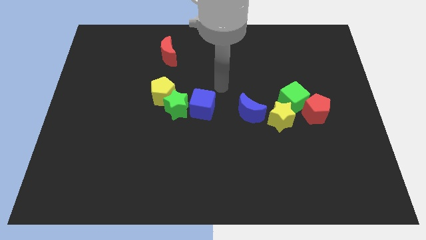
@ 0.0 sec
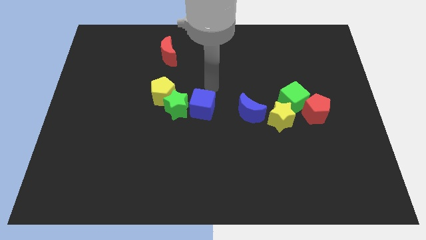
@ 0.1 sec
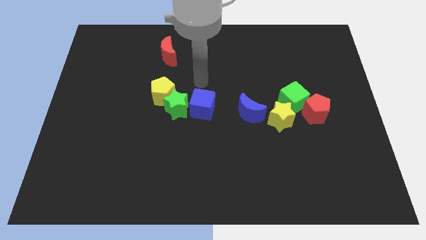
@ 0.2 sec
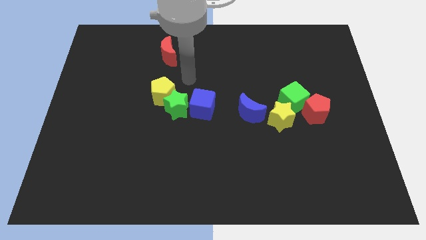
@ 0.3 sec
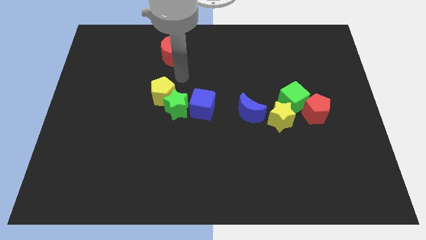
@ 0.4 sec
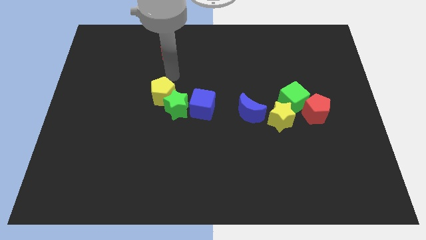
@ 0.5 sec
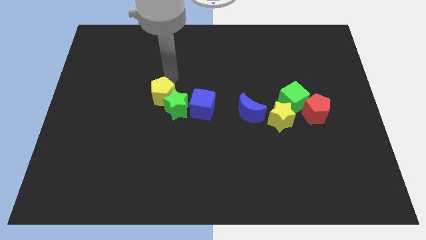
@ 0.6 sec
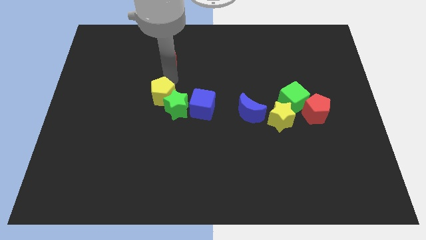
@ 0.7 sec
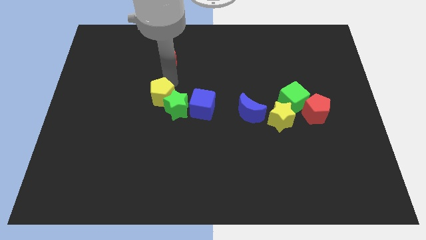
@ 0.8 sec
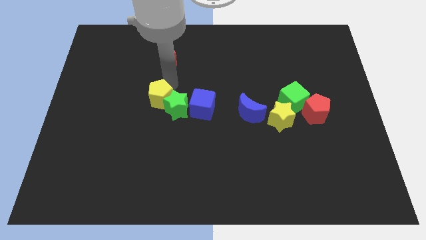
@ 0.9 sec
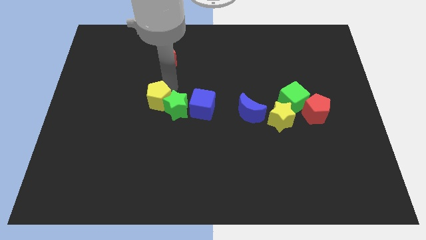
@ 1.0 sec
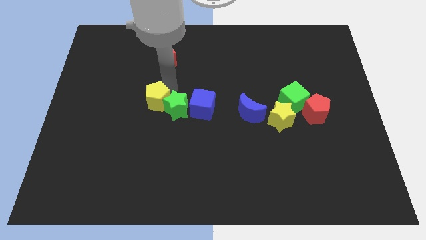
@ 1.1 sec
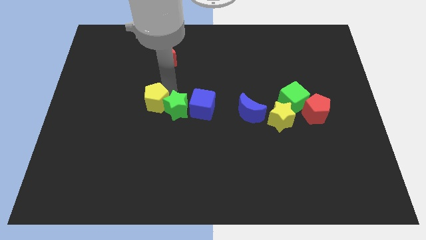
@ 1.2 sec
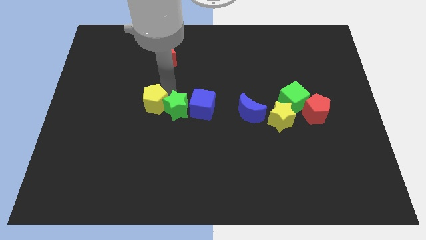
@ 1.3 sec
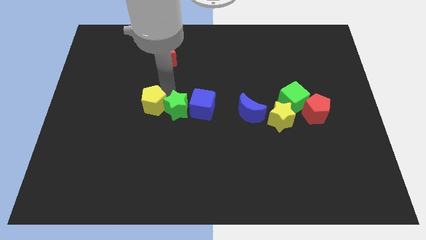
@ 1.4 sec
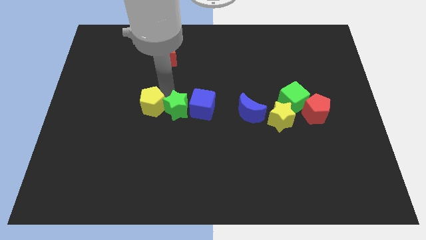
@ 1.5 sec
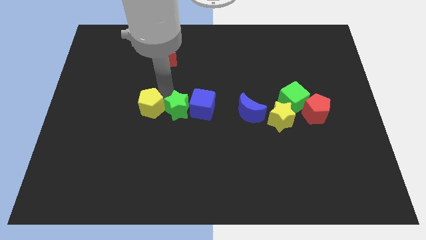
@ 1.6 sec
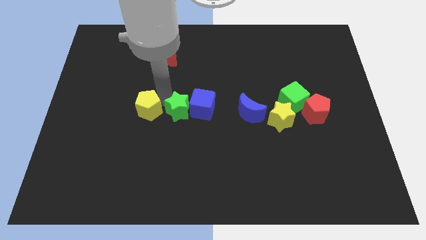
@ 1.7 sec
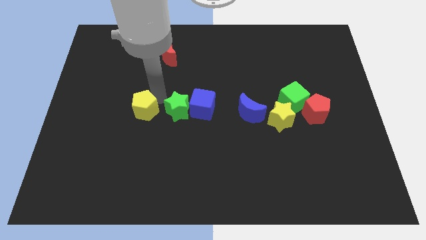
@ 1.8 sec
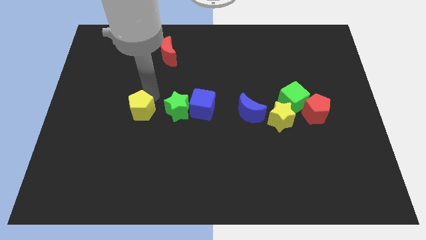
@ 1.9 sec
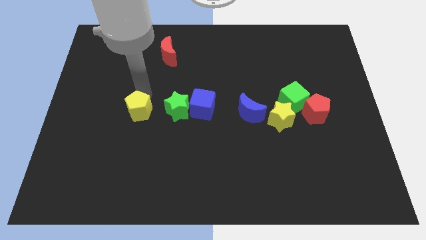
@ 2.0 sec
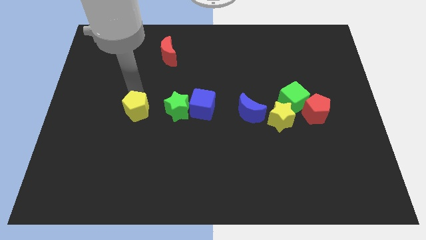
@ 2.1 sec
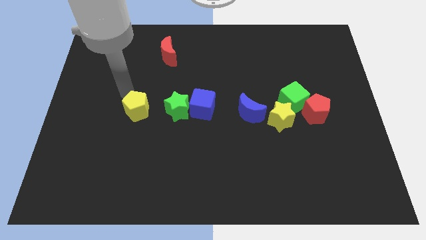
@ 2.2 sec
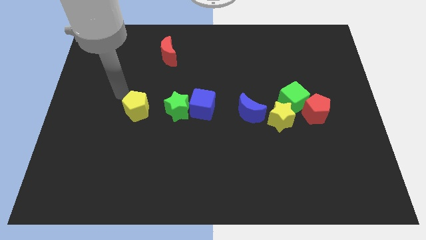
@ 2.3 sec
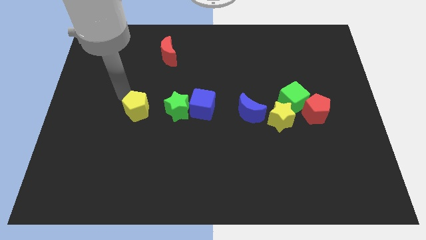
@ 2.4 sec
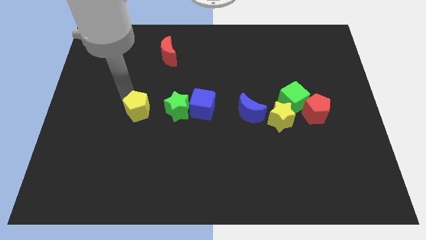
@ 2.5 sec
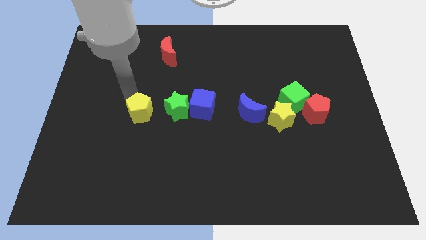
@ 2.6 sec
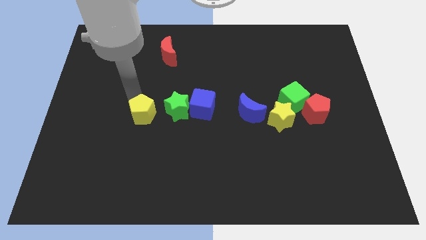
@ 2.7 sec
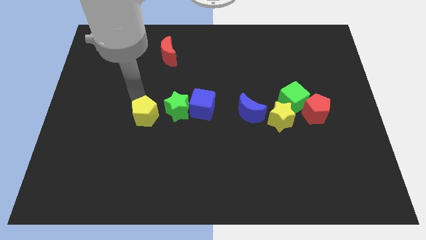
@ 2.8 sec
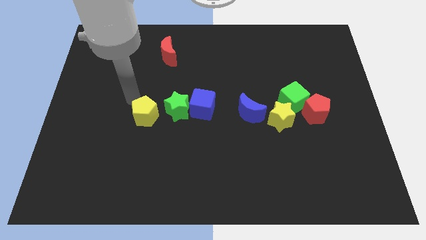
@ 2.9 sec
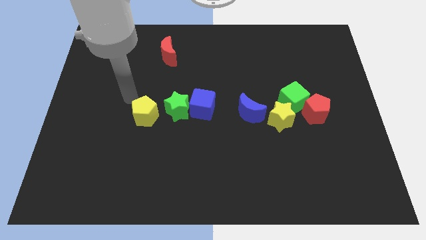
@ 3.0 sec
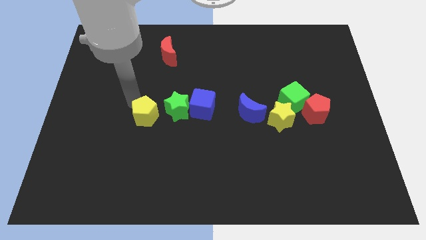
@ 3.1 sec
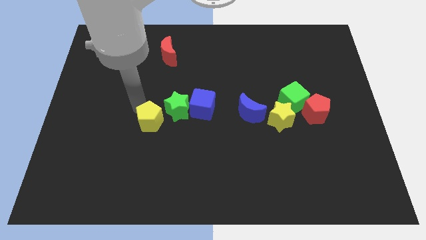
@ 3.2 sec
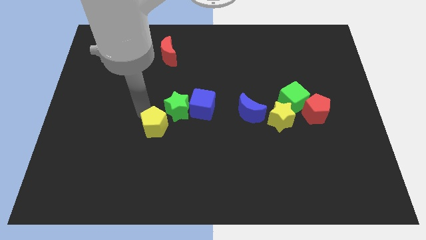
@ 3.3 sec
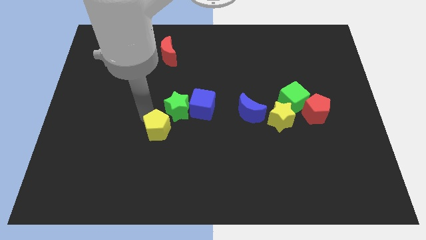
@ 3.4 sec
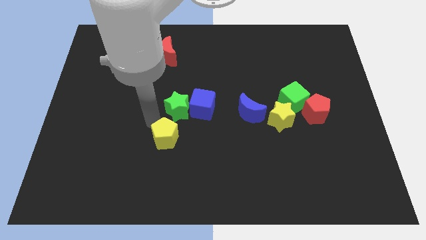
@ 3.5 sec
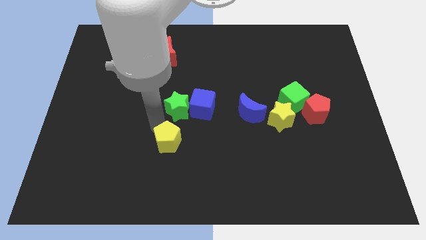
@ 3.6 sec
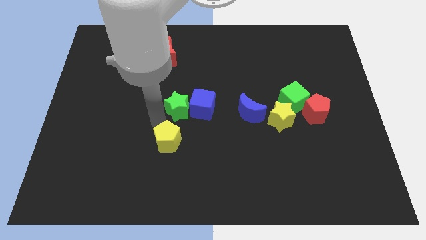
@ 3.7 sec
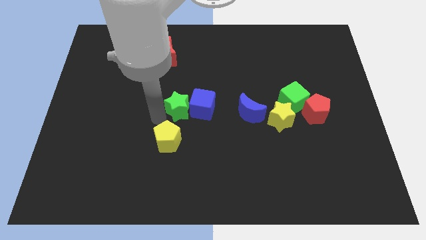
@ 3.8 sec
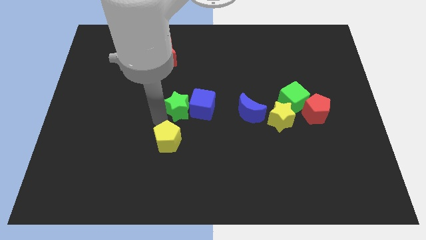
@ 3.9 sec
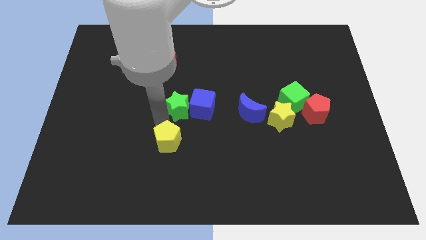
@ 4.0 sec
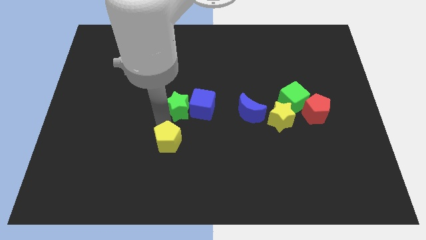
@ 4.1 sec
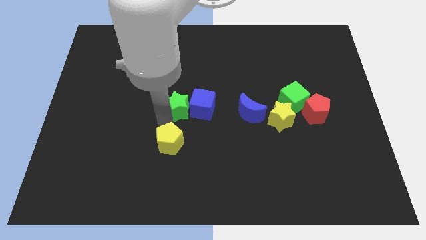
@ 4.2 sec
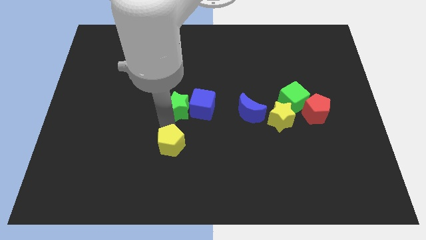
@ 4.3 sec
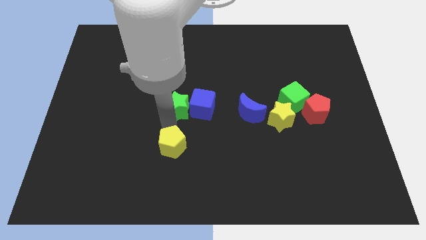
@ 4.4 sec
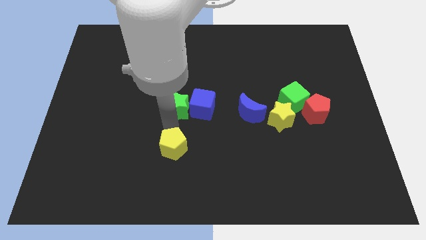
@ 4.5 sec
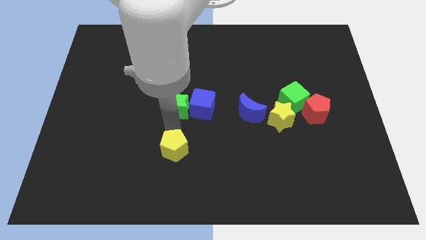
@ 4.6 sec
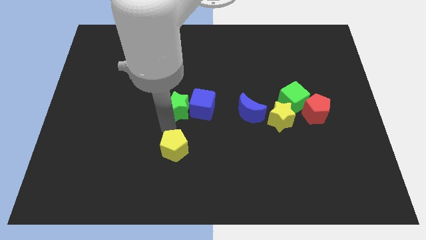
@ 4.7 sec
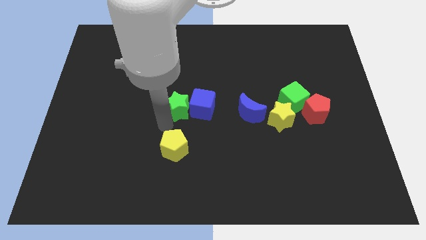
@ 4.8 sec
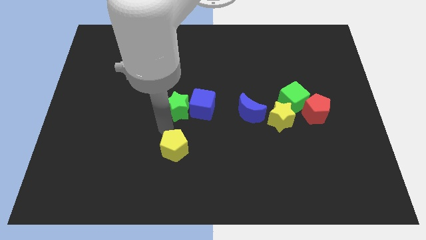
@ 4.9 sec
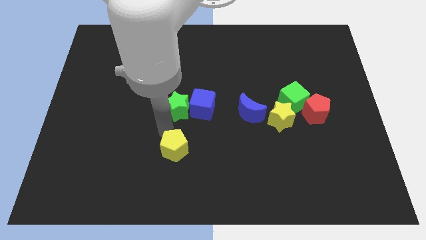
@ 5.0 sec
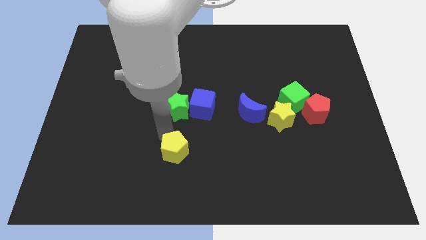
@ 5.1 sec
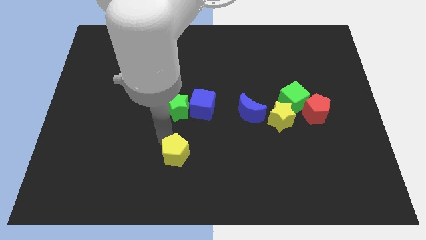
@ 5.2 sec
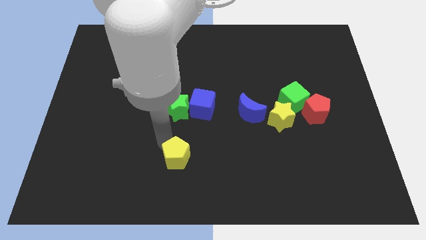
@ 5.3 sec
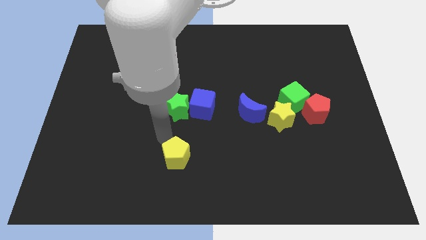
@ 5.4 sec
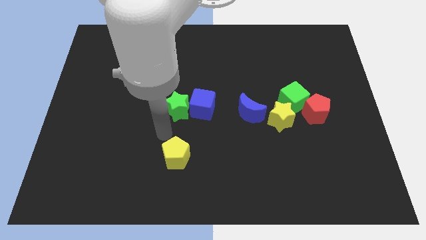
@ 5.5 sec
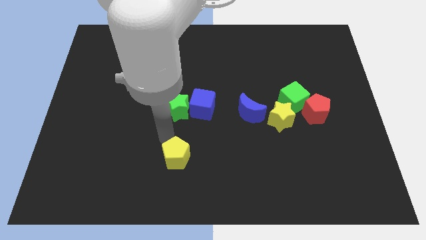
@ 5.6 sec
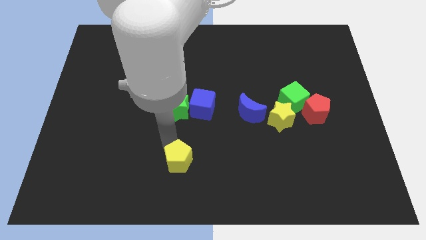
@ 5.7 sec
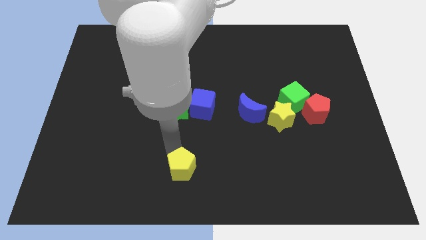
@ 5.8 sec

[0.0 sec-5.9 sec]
move the yellow pentagon to the bottom
